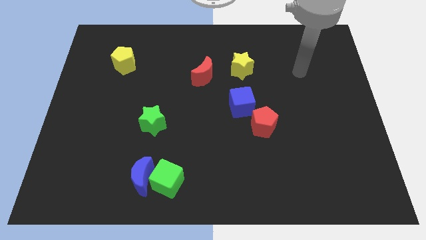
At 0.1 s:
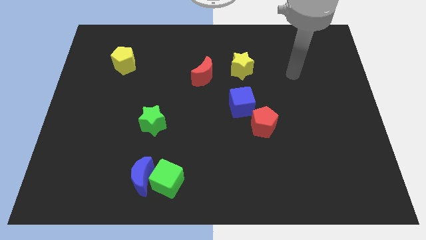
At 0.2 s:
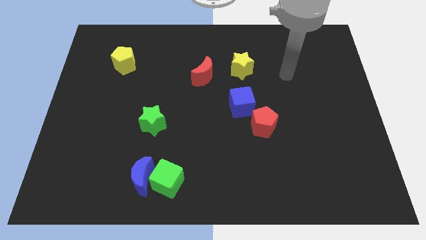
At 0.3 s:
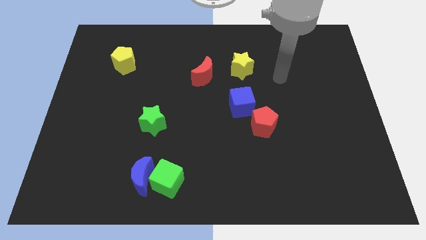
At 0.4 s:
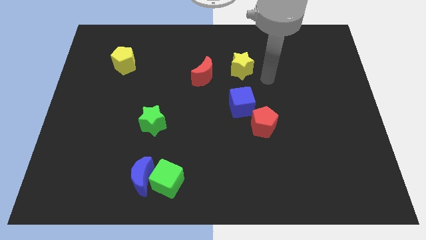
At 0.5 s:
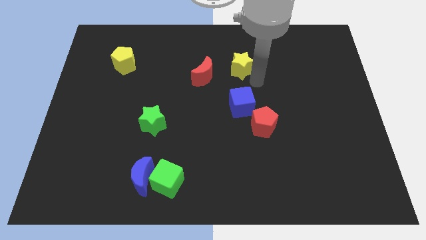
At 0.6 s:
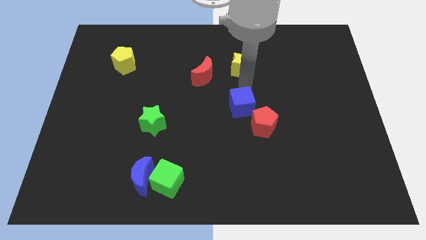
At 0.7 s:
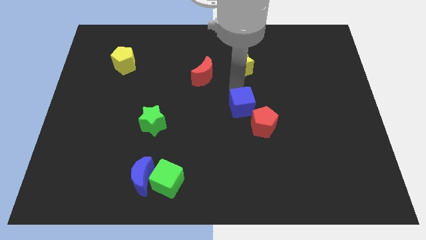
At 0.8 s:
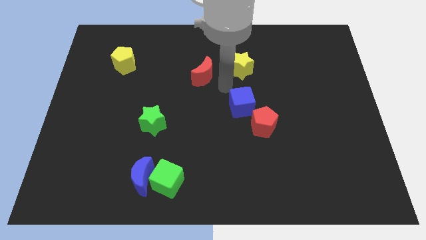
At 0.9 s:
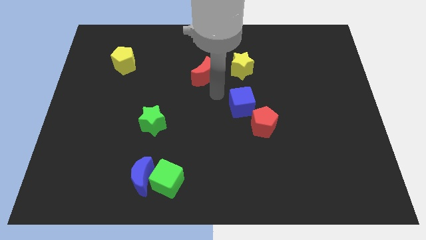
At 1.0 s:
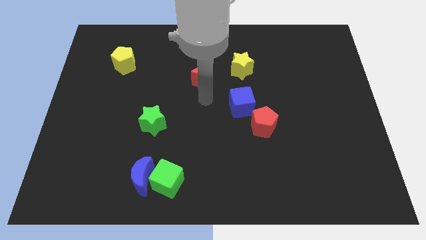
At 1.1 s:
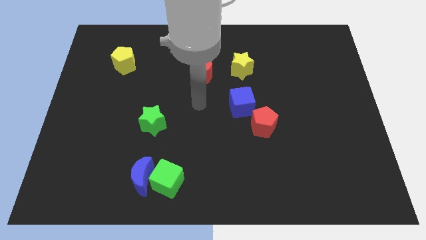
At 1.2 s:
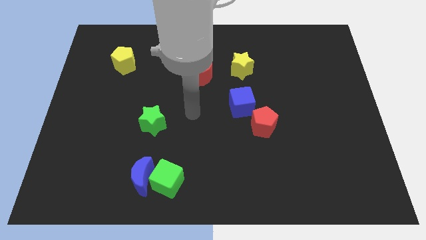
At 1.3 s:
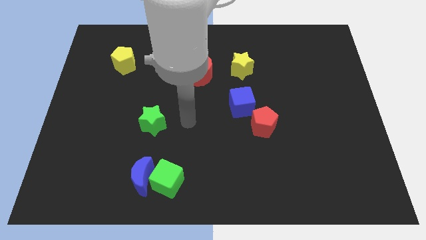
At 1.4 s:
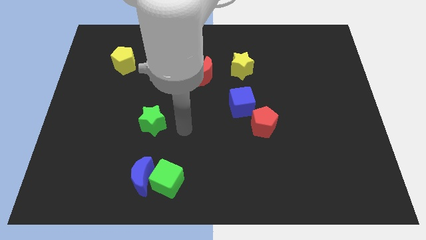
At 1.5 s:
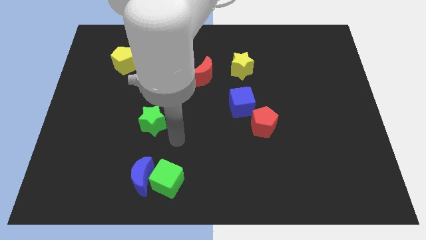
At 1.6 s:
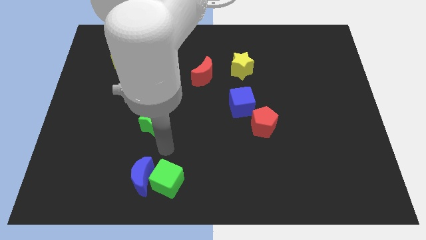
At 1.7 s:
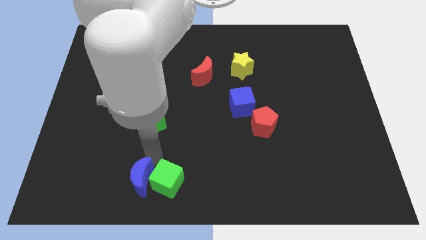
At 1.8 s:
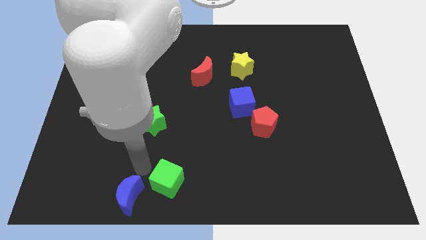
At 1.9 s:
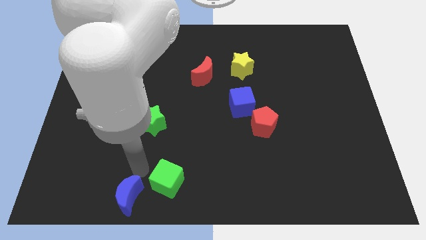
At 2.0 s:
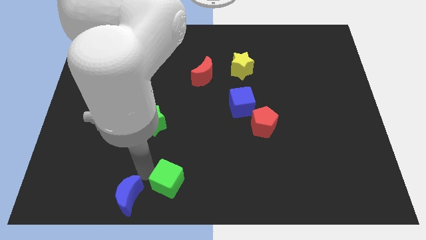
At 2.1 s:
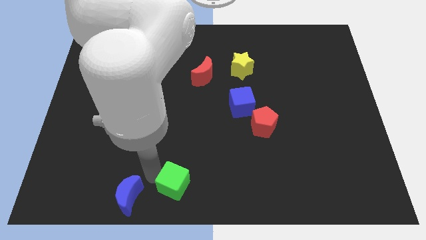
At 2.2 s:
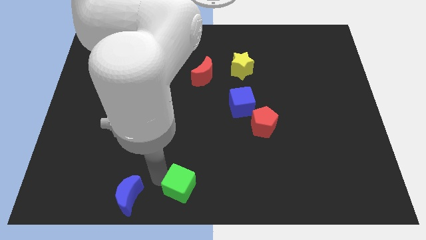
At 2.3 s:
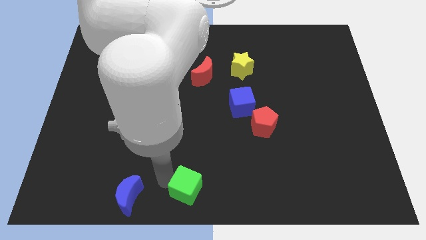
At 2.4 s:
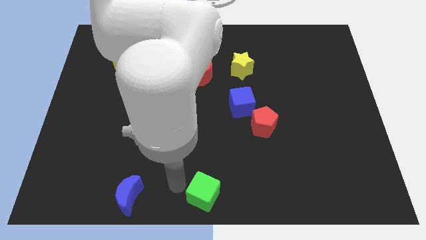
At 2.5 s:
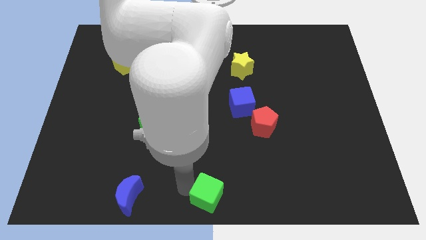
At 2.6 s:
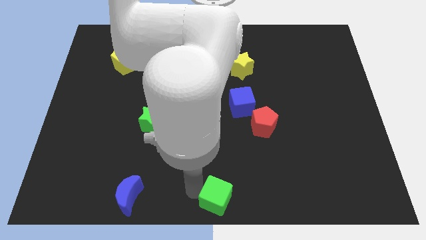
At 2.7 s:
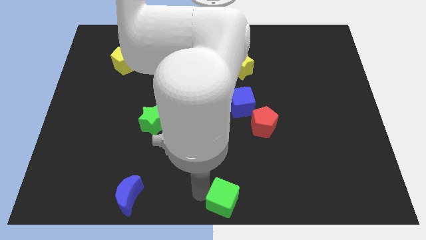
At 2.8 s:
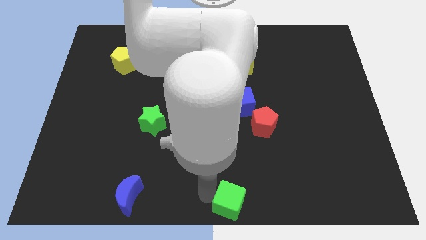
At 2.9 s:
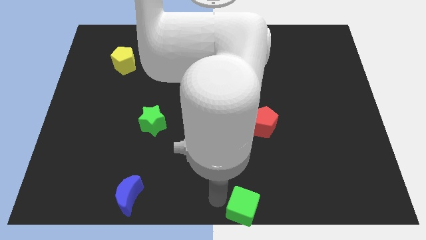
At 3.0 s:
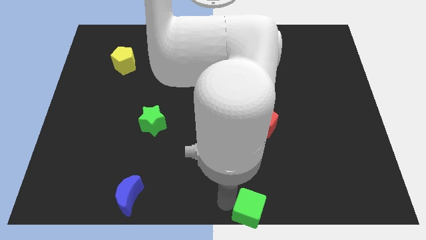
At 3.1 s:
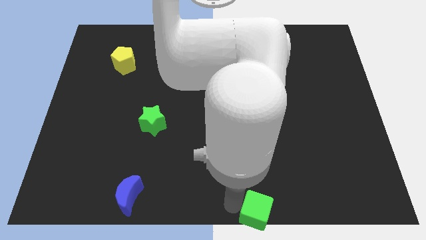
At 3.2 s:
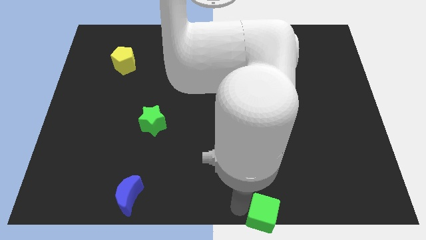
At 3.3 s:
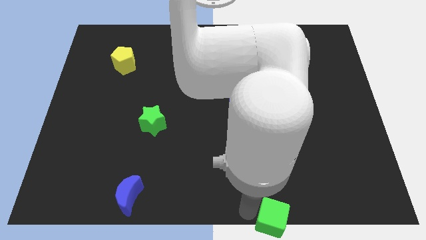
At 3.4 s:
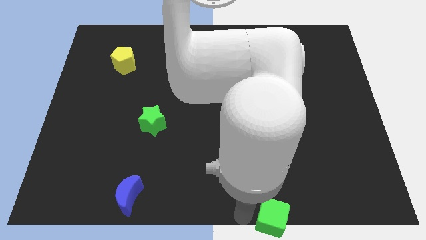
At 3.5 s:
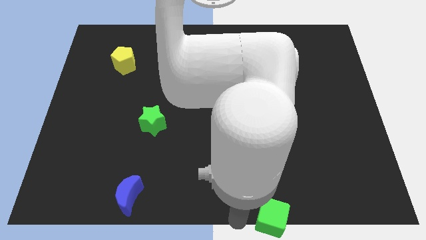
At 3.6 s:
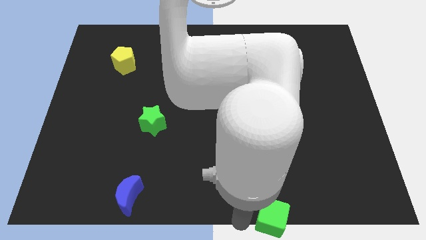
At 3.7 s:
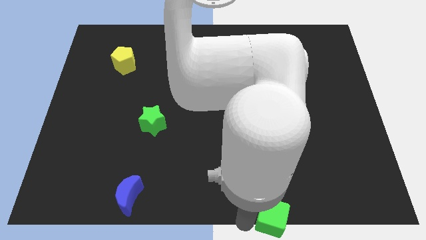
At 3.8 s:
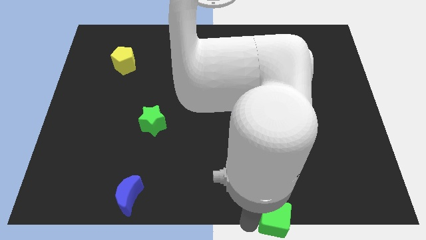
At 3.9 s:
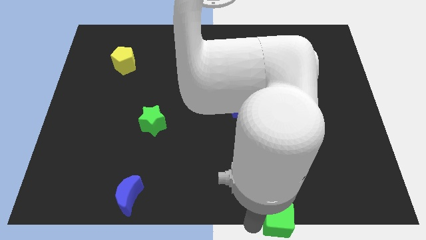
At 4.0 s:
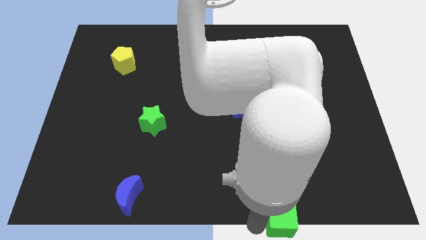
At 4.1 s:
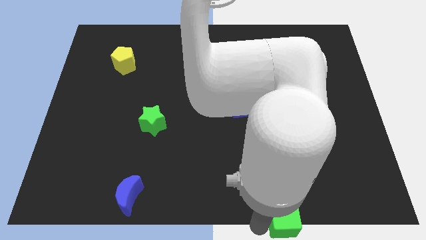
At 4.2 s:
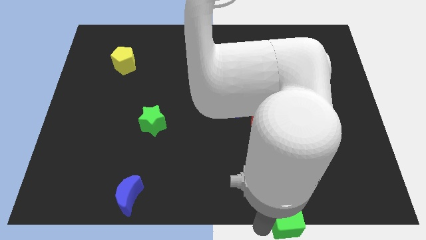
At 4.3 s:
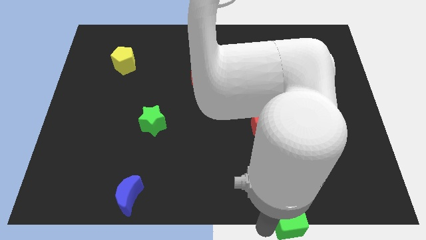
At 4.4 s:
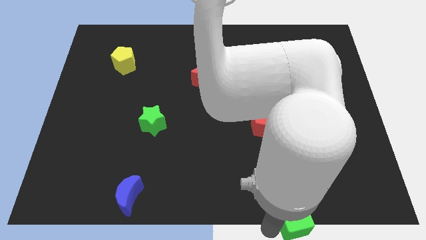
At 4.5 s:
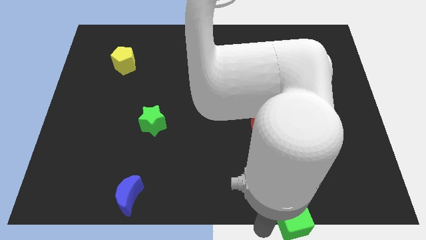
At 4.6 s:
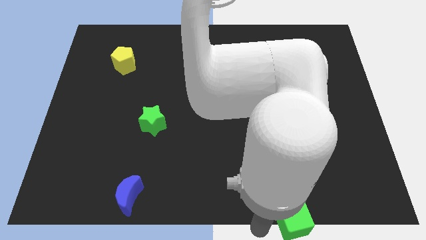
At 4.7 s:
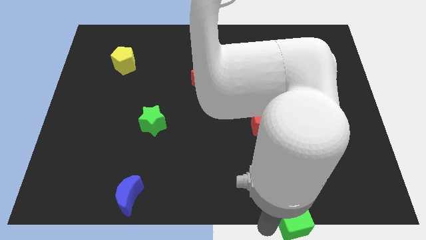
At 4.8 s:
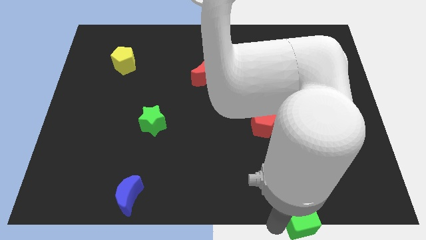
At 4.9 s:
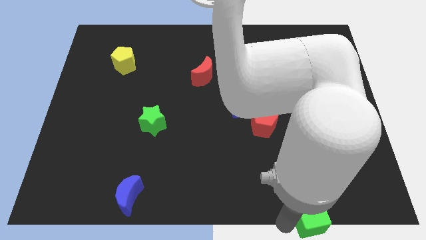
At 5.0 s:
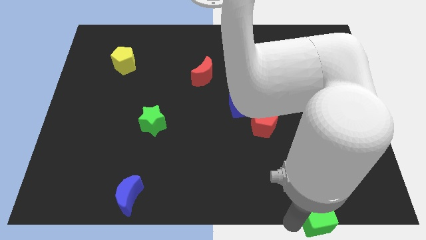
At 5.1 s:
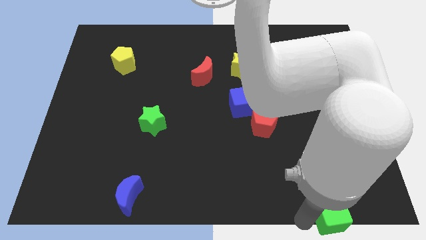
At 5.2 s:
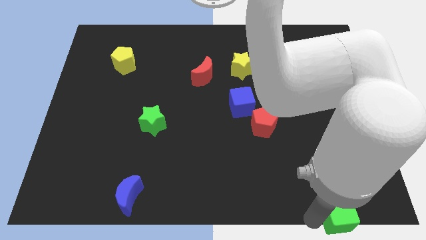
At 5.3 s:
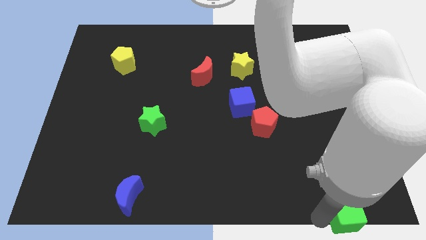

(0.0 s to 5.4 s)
slide the green cube to the bottom right

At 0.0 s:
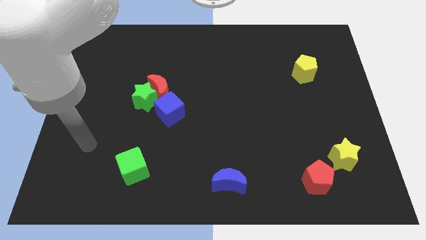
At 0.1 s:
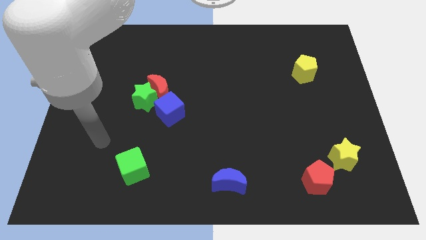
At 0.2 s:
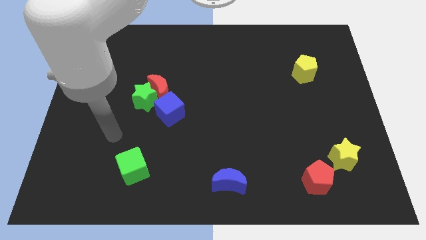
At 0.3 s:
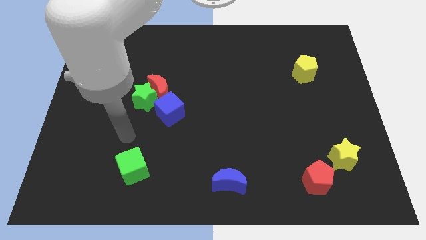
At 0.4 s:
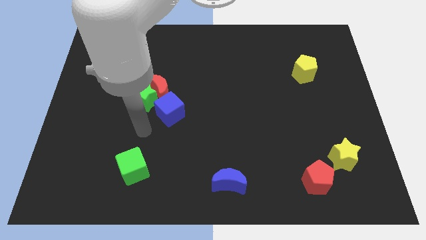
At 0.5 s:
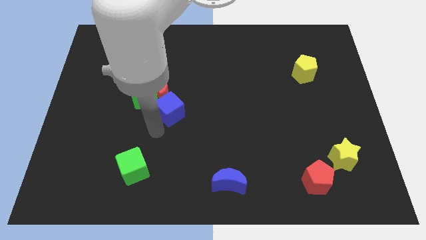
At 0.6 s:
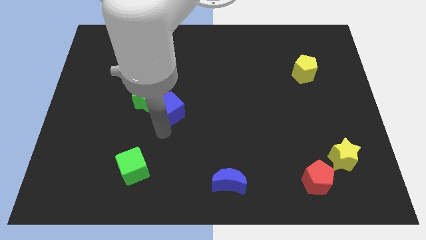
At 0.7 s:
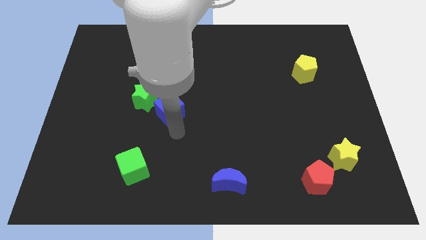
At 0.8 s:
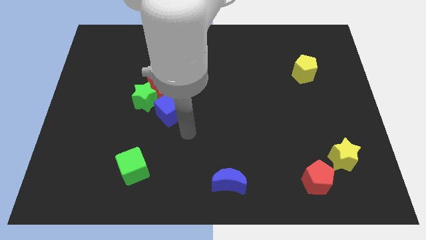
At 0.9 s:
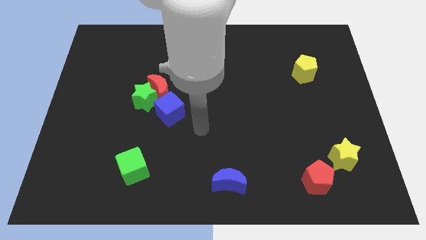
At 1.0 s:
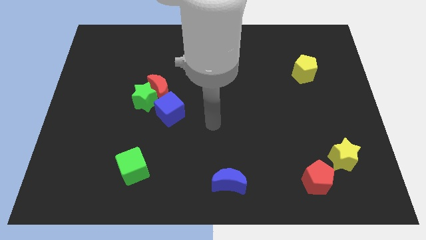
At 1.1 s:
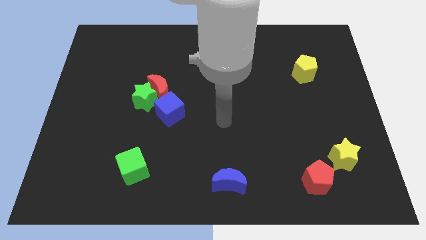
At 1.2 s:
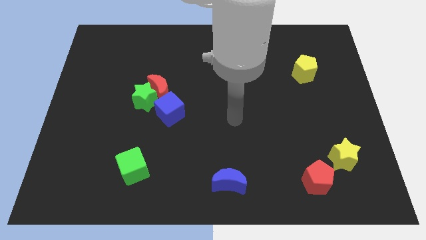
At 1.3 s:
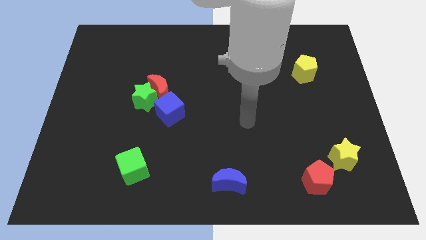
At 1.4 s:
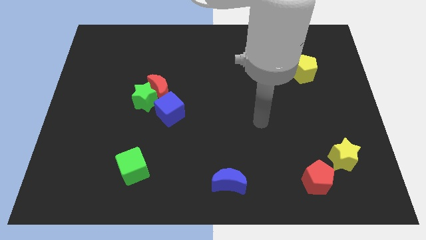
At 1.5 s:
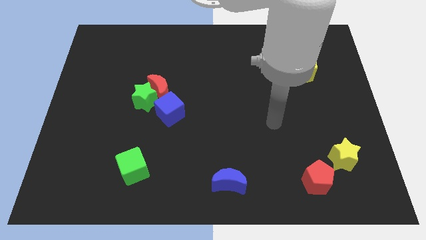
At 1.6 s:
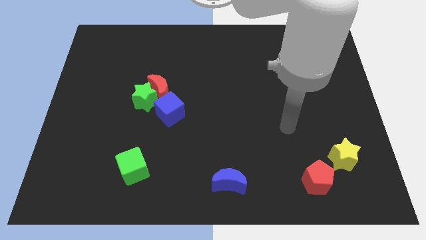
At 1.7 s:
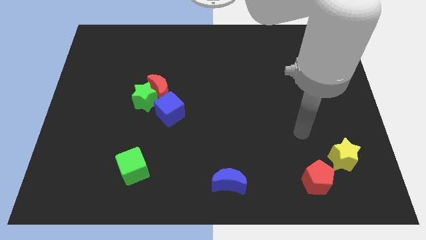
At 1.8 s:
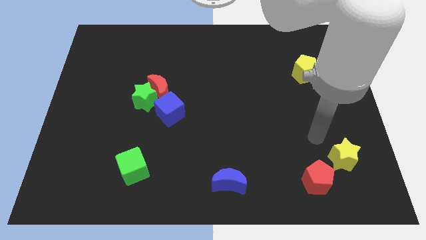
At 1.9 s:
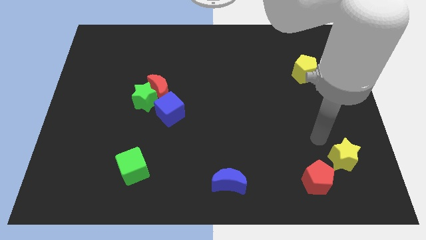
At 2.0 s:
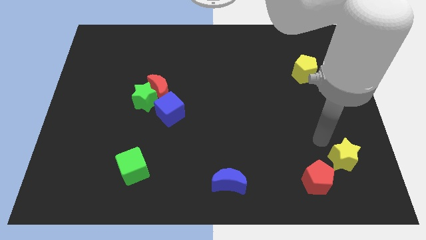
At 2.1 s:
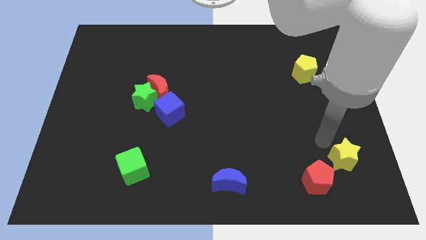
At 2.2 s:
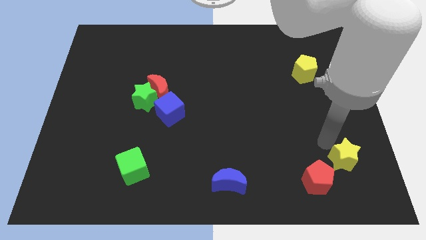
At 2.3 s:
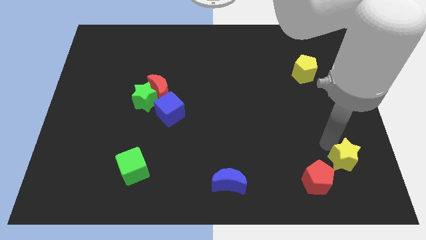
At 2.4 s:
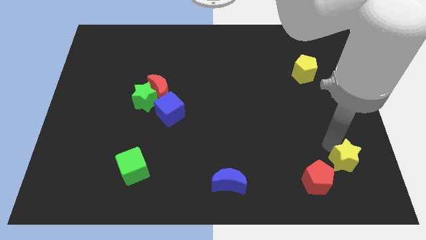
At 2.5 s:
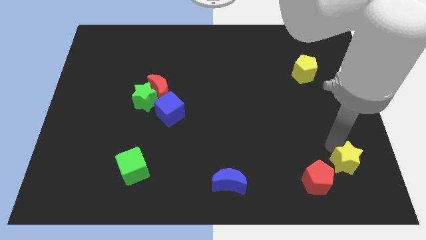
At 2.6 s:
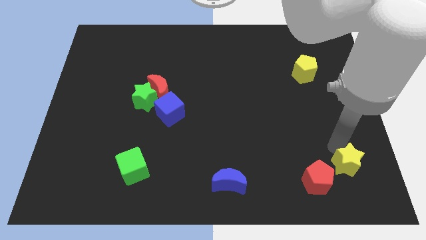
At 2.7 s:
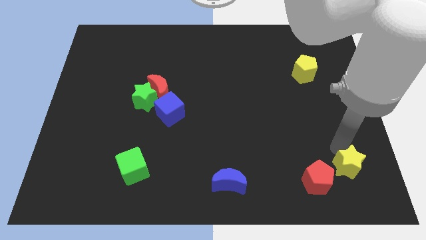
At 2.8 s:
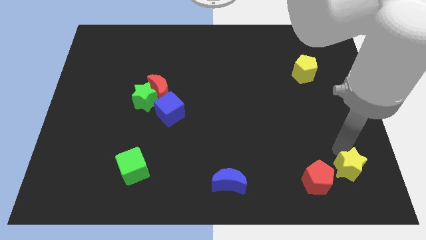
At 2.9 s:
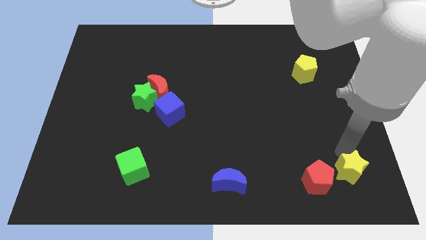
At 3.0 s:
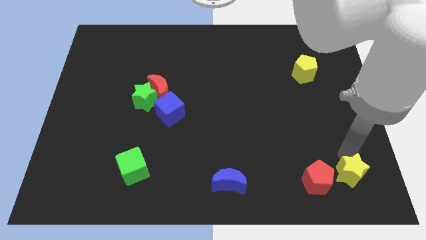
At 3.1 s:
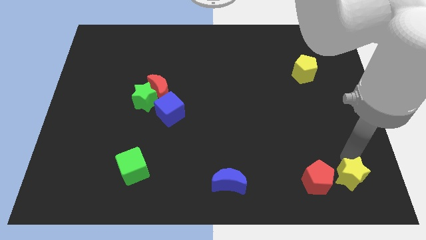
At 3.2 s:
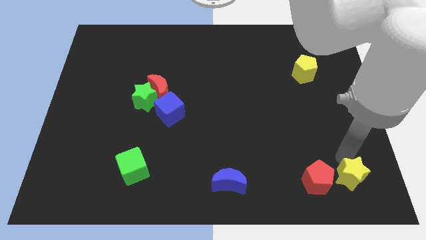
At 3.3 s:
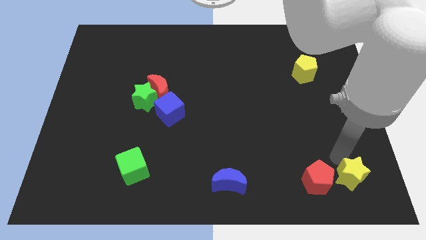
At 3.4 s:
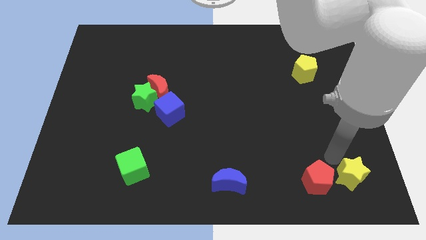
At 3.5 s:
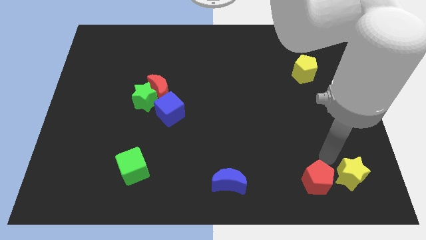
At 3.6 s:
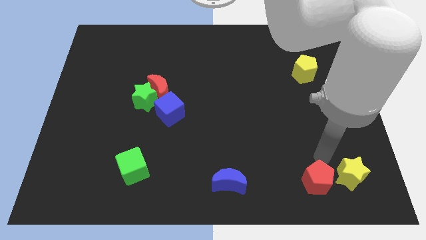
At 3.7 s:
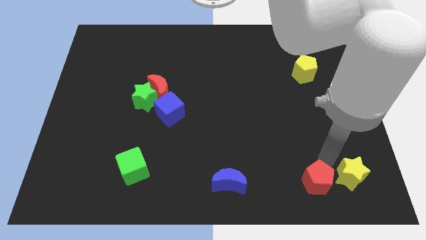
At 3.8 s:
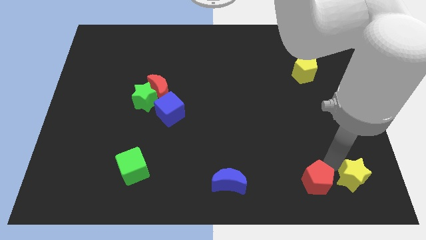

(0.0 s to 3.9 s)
move the yellow star to the bottom right corner
